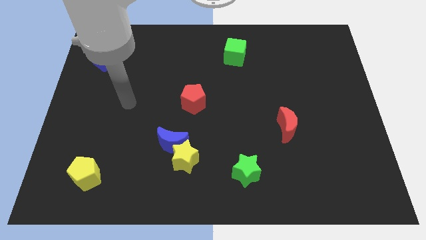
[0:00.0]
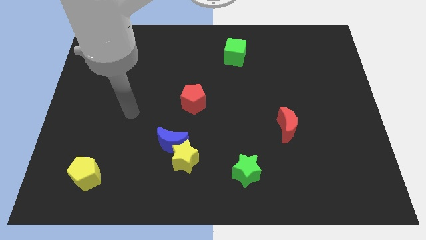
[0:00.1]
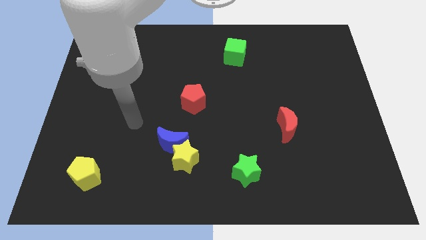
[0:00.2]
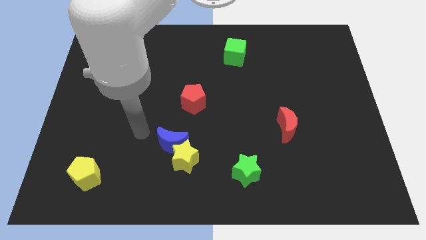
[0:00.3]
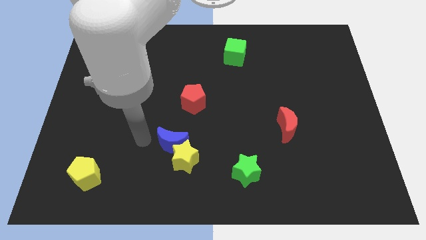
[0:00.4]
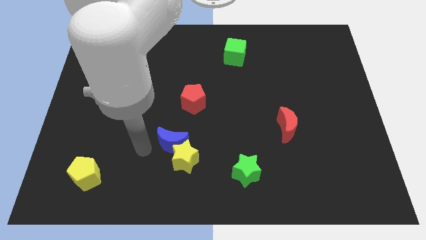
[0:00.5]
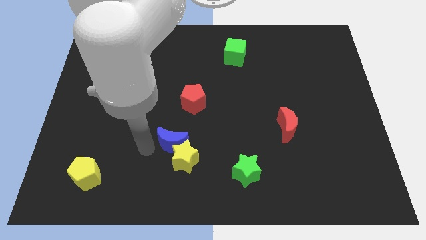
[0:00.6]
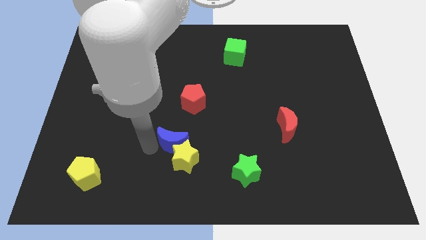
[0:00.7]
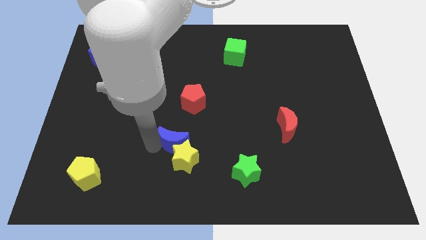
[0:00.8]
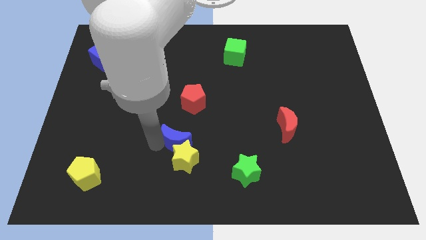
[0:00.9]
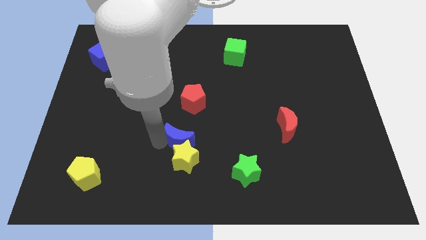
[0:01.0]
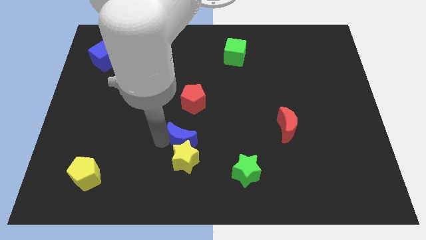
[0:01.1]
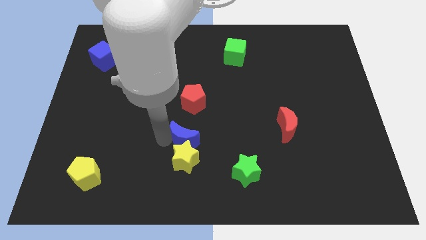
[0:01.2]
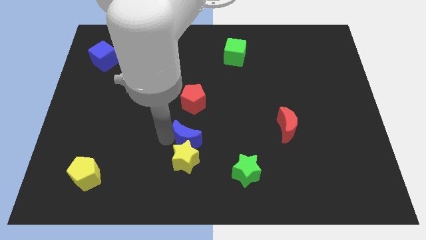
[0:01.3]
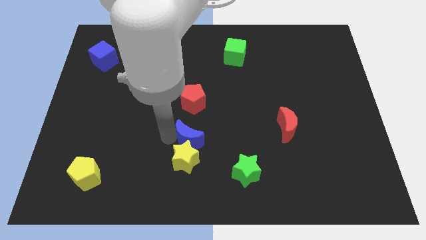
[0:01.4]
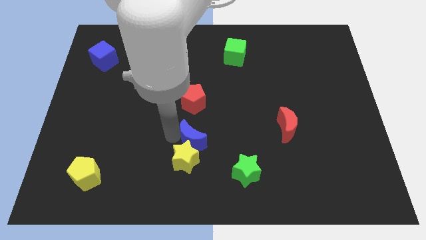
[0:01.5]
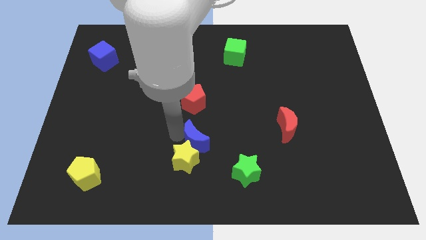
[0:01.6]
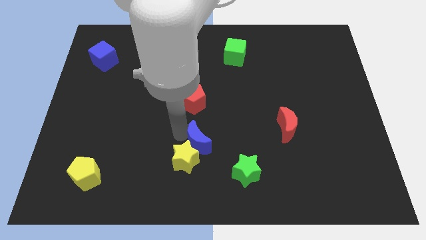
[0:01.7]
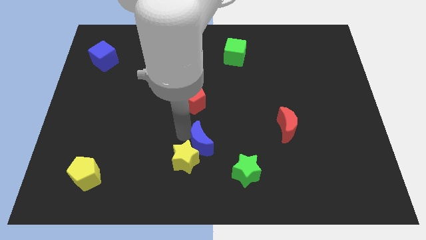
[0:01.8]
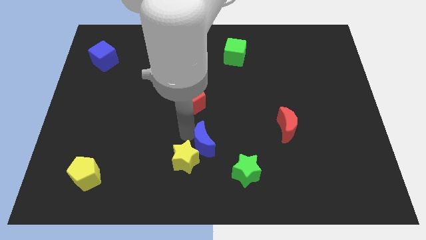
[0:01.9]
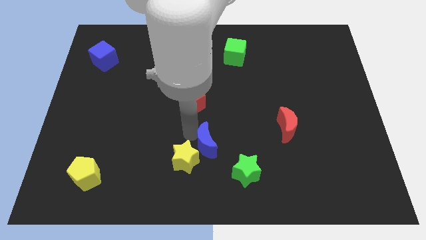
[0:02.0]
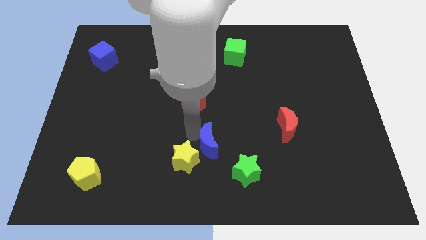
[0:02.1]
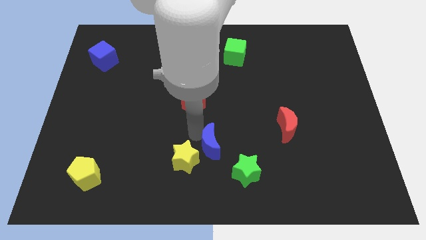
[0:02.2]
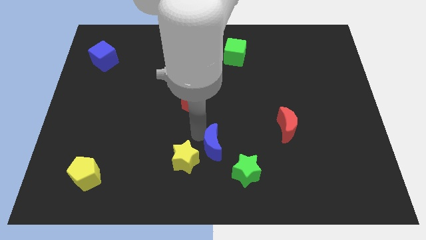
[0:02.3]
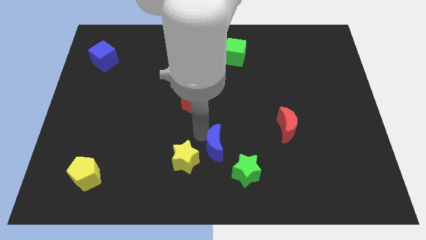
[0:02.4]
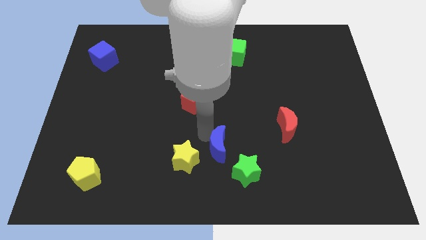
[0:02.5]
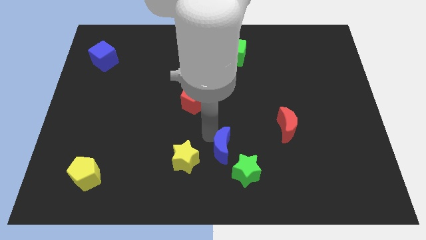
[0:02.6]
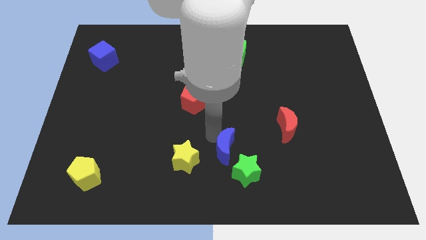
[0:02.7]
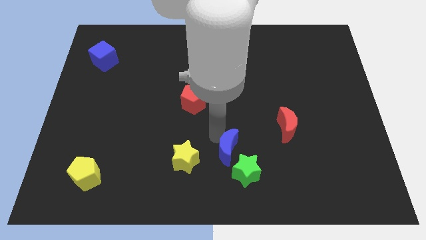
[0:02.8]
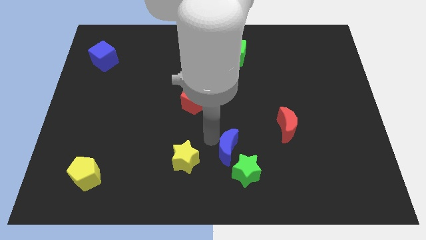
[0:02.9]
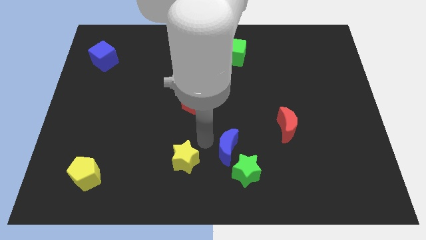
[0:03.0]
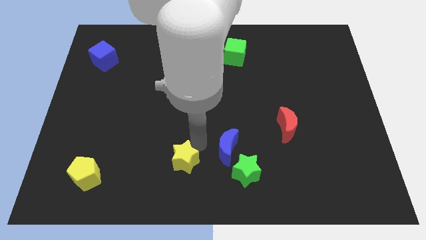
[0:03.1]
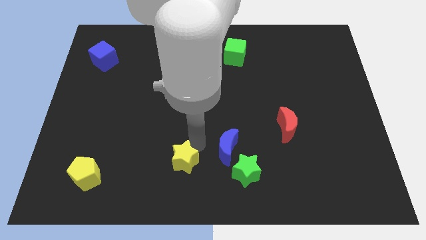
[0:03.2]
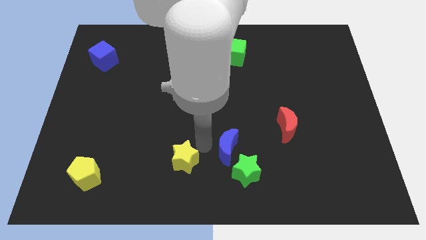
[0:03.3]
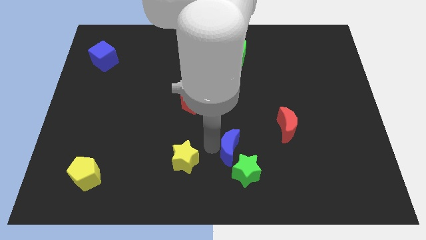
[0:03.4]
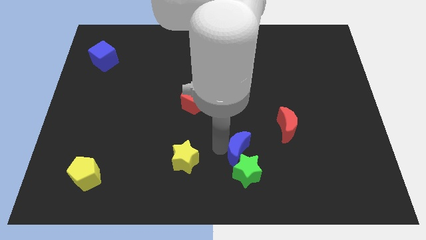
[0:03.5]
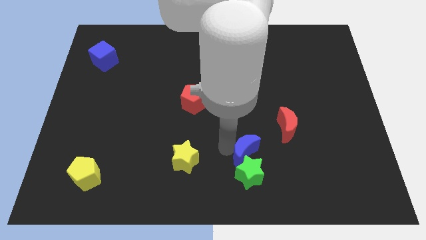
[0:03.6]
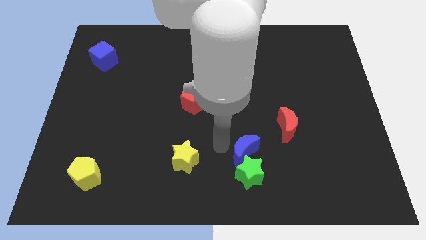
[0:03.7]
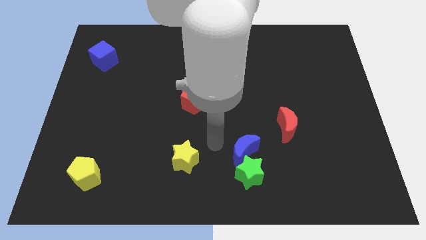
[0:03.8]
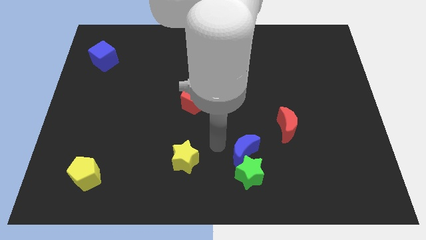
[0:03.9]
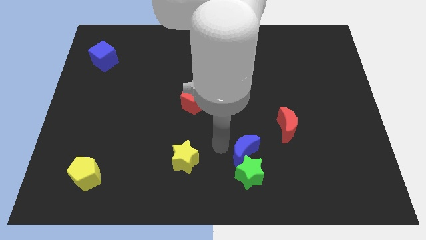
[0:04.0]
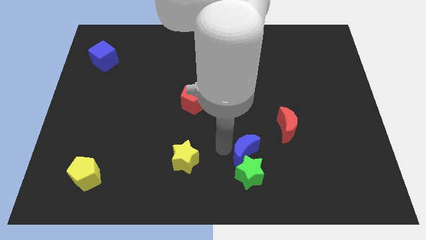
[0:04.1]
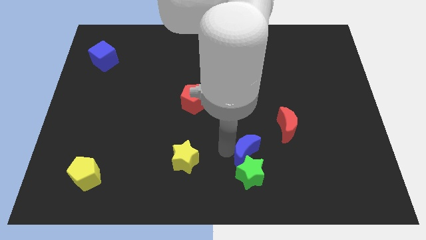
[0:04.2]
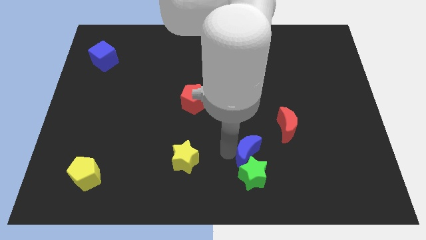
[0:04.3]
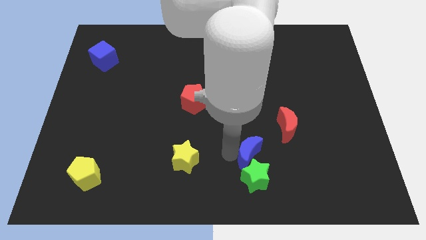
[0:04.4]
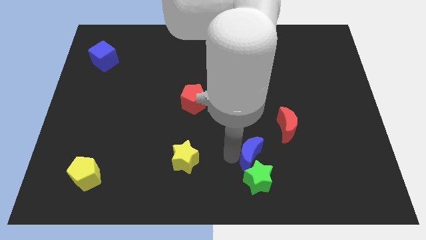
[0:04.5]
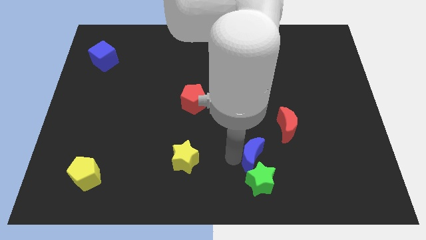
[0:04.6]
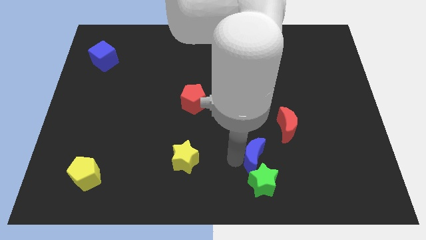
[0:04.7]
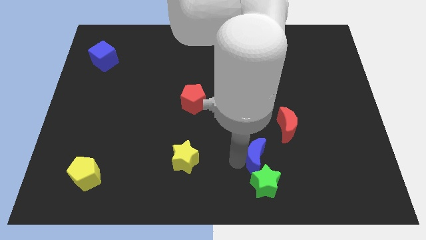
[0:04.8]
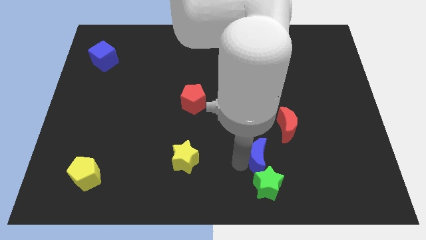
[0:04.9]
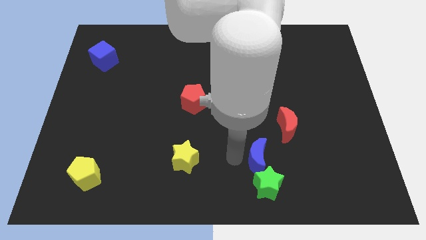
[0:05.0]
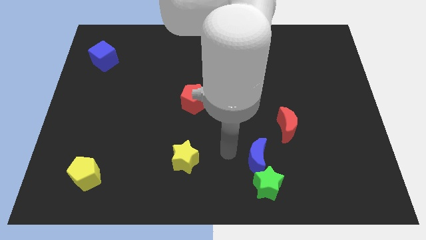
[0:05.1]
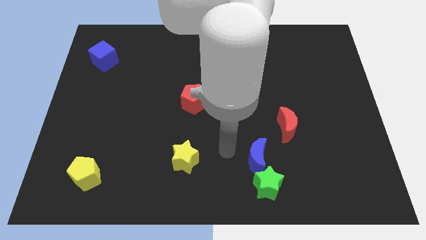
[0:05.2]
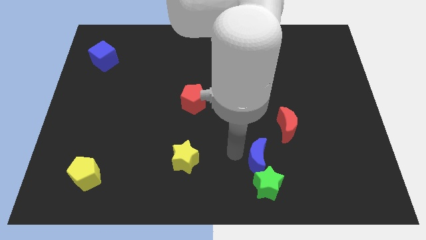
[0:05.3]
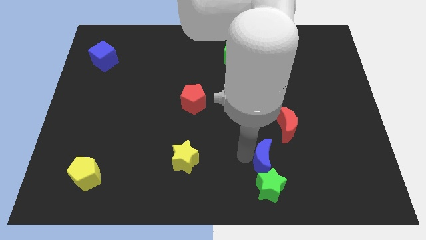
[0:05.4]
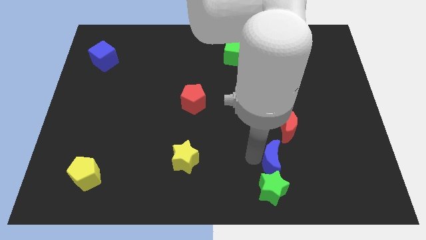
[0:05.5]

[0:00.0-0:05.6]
put the blue moon below the red moon

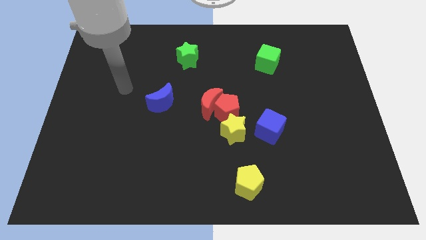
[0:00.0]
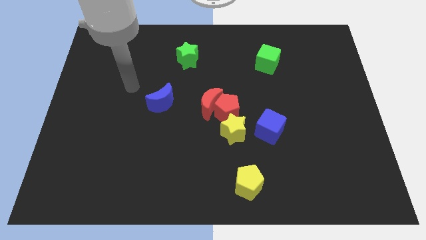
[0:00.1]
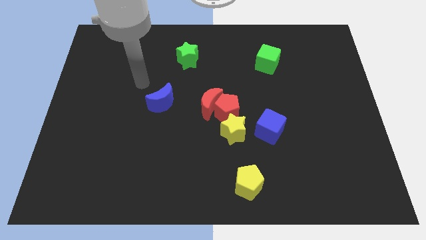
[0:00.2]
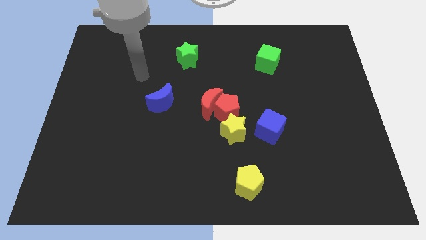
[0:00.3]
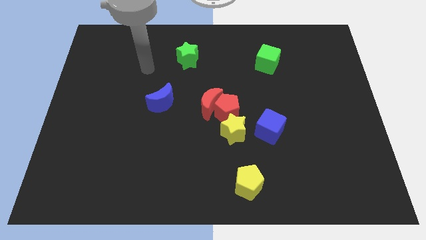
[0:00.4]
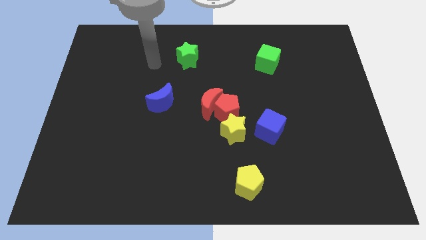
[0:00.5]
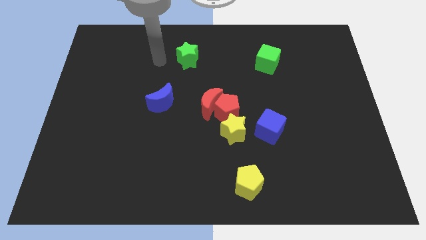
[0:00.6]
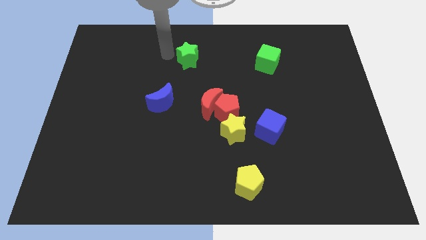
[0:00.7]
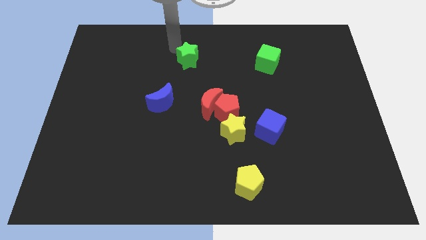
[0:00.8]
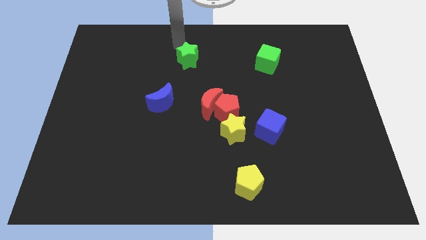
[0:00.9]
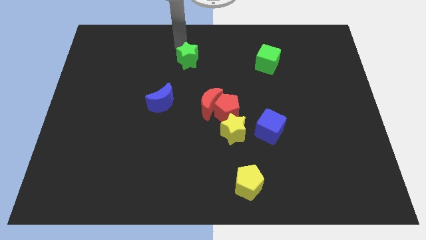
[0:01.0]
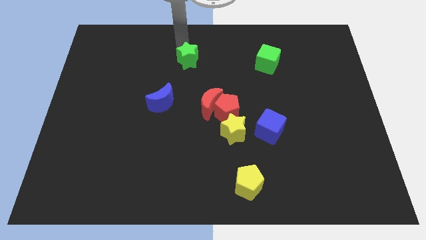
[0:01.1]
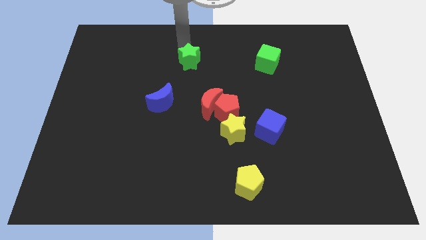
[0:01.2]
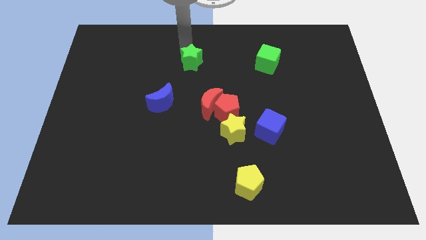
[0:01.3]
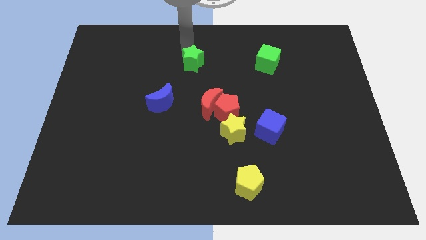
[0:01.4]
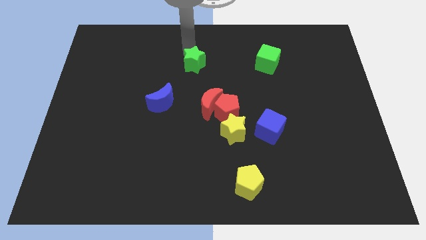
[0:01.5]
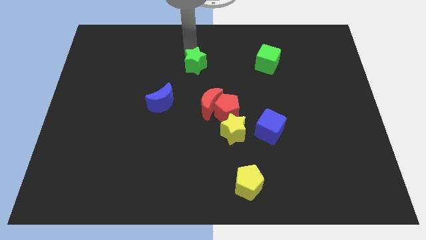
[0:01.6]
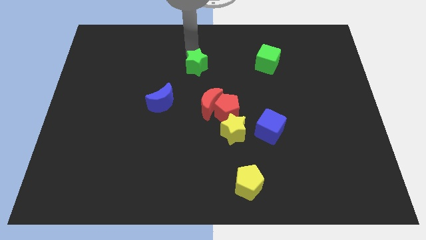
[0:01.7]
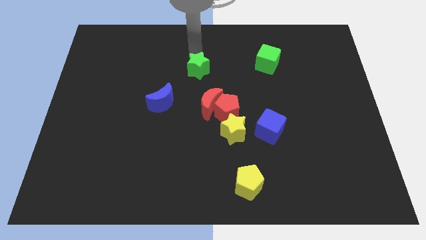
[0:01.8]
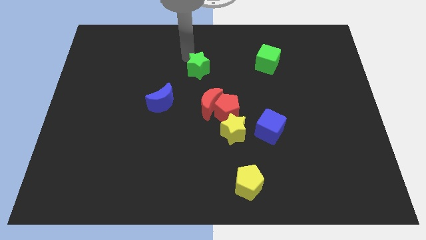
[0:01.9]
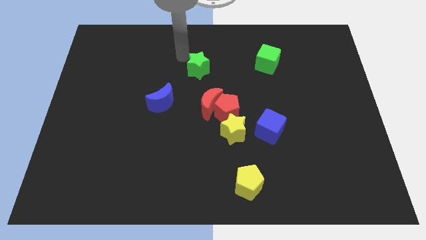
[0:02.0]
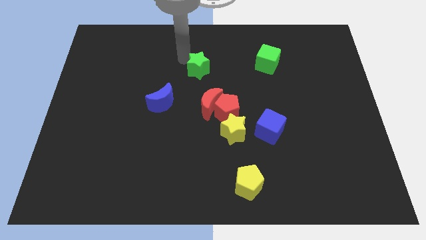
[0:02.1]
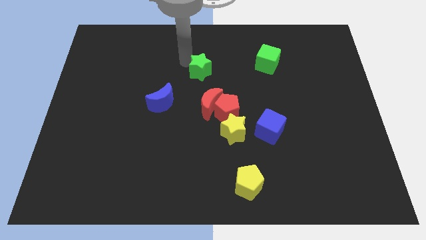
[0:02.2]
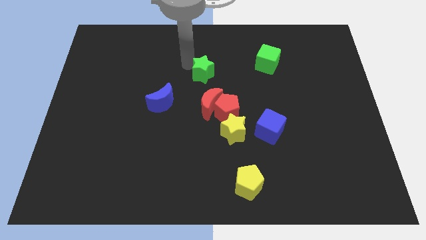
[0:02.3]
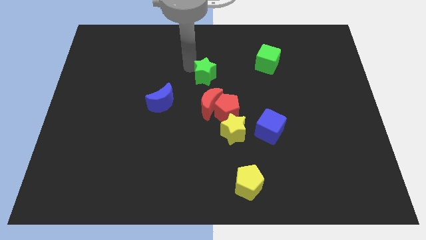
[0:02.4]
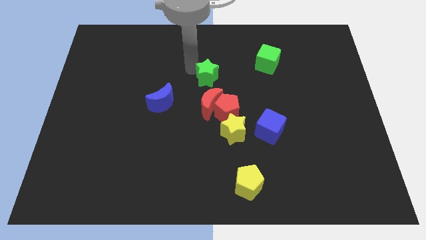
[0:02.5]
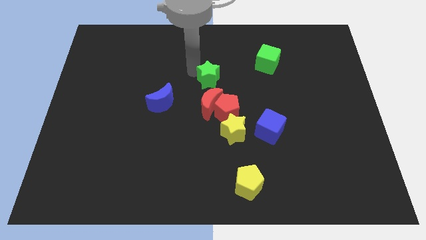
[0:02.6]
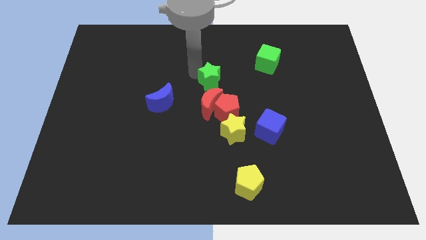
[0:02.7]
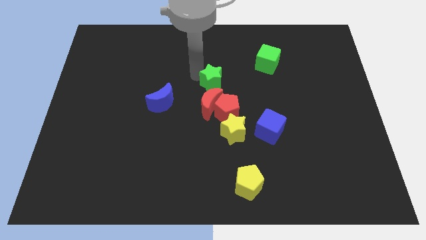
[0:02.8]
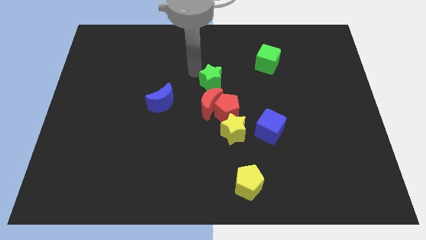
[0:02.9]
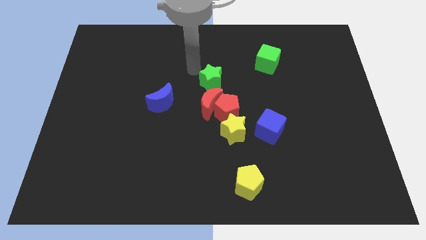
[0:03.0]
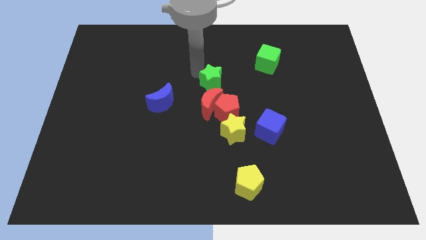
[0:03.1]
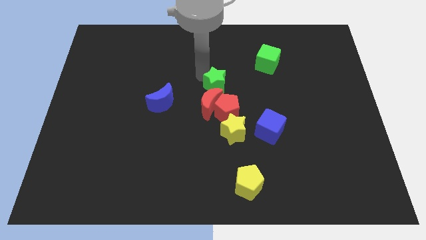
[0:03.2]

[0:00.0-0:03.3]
move the green star to the top of the yellow star
